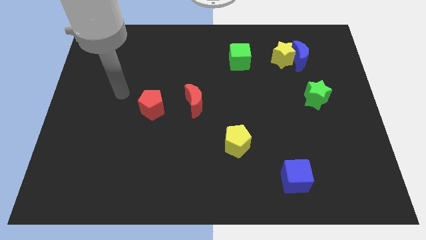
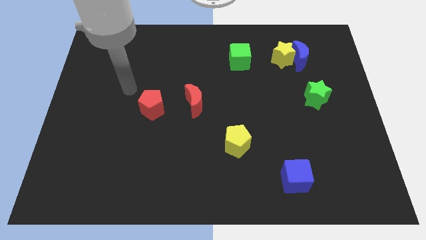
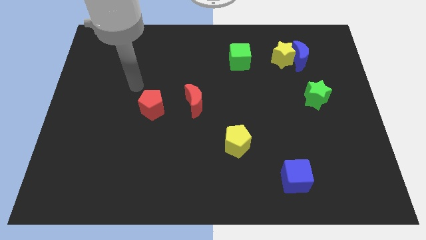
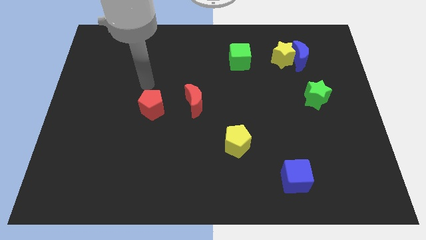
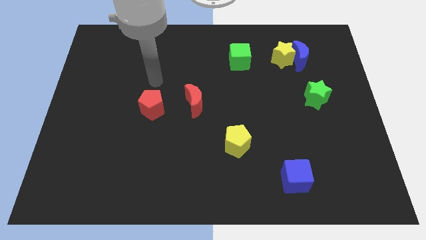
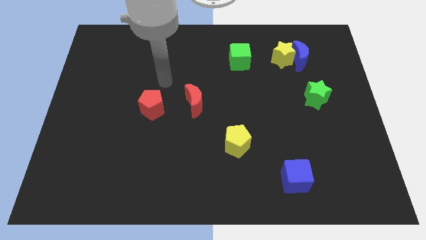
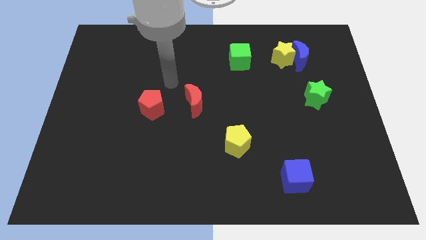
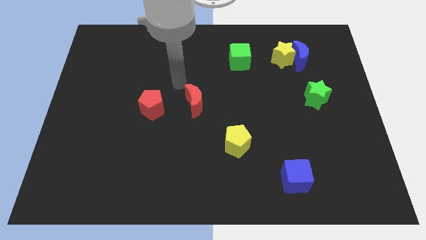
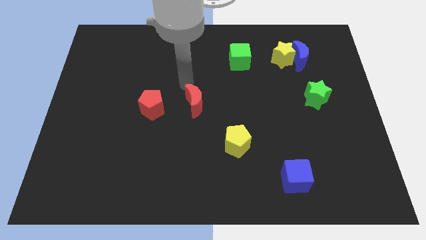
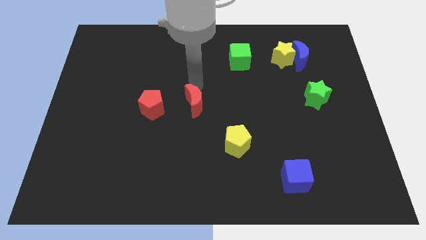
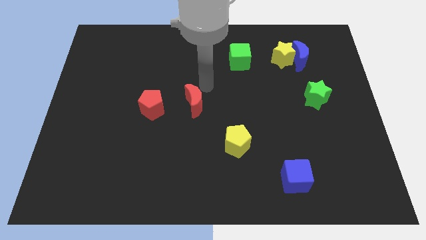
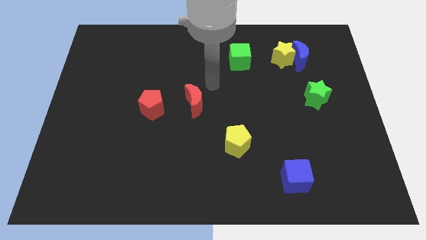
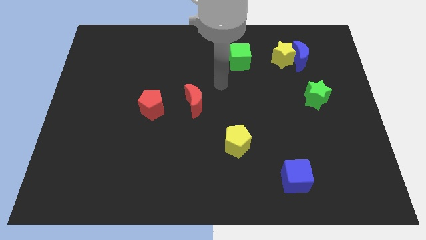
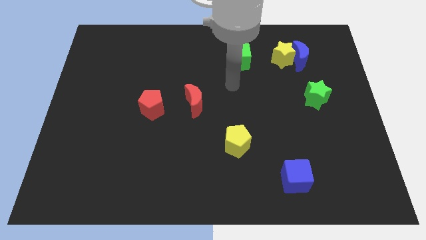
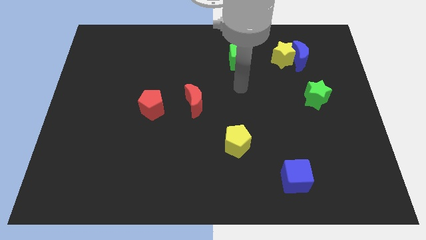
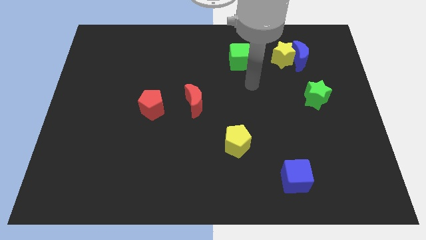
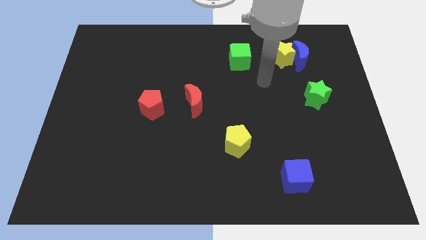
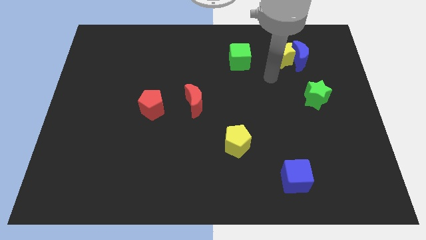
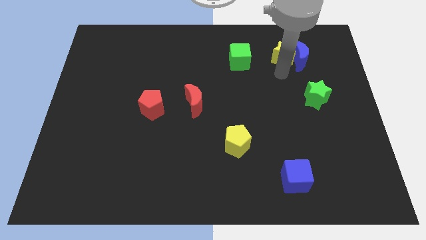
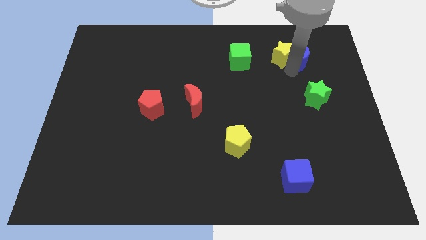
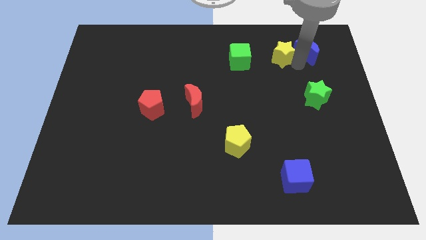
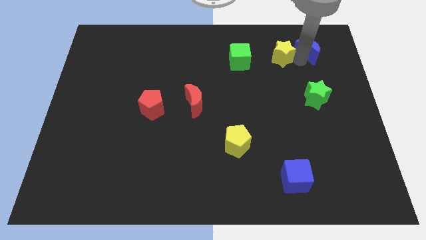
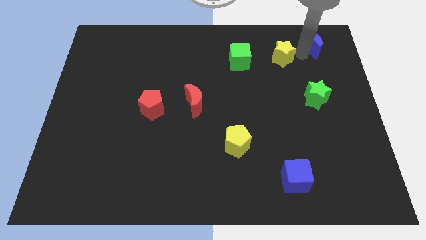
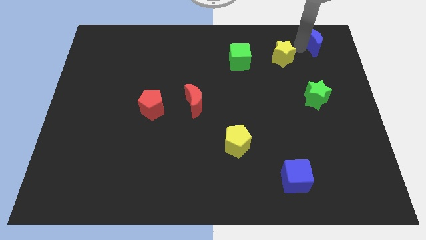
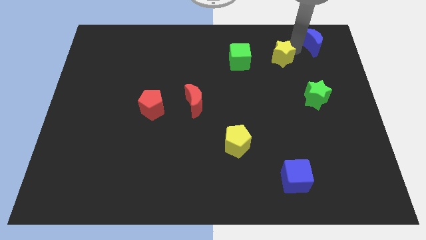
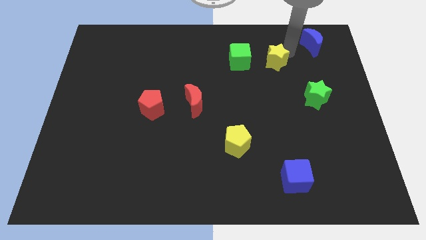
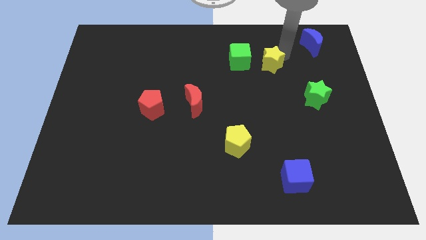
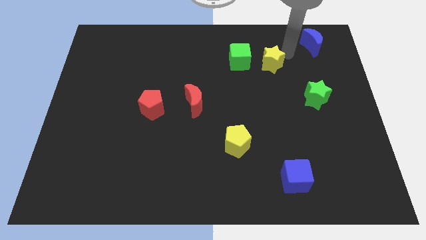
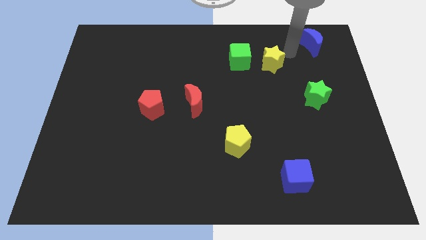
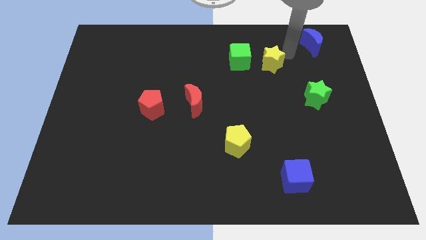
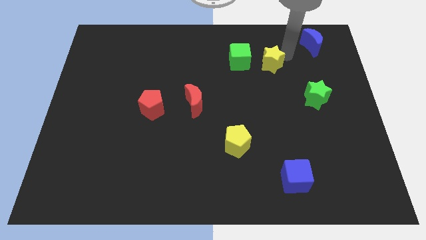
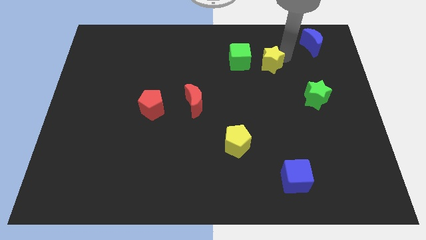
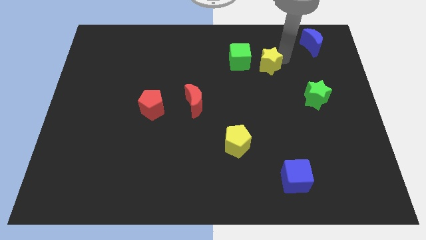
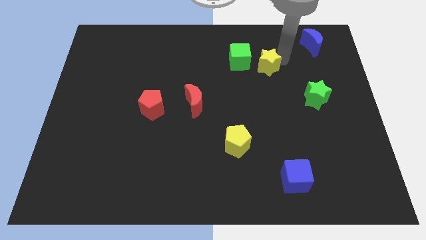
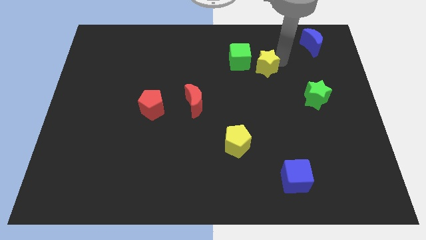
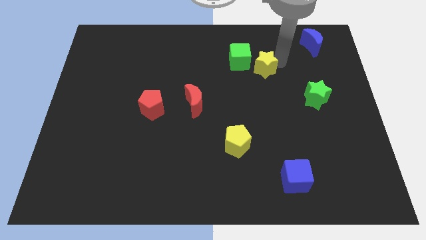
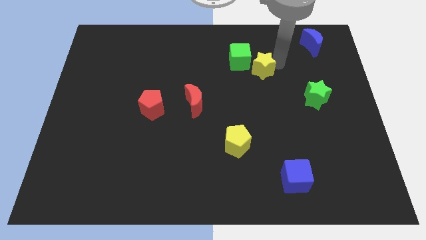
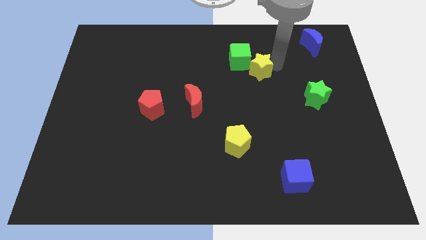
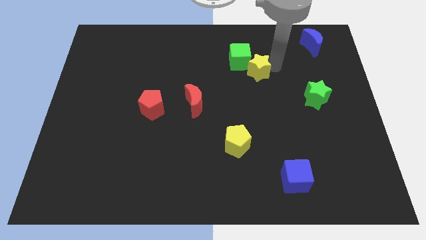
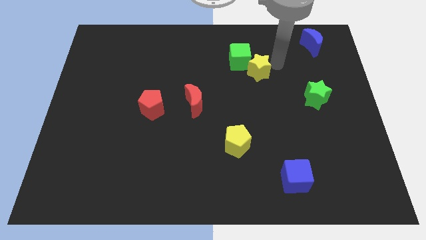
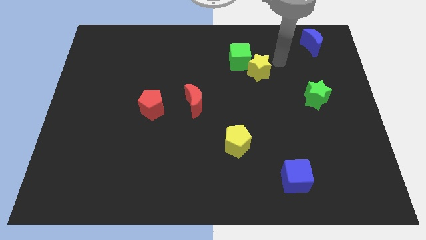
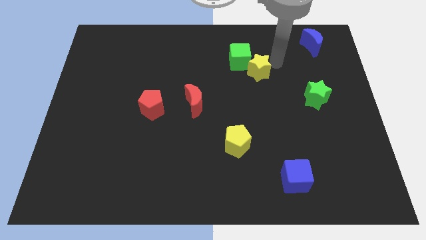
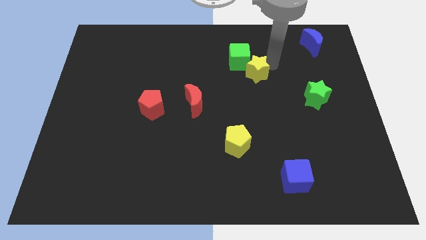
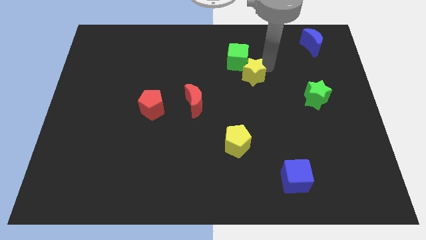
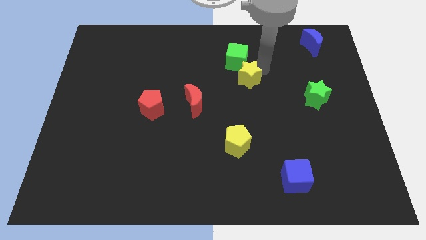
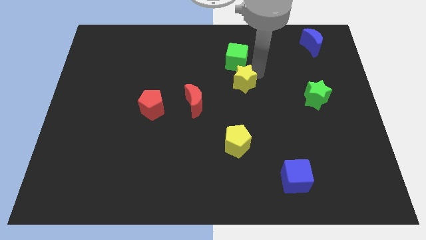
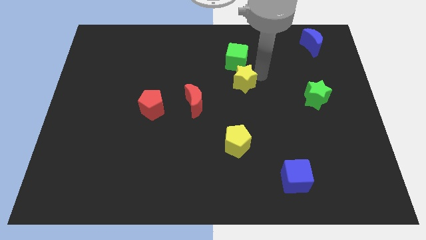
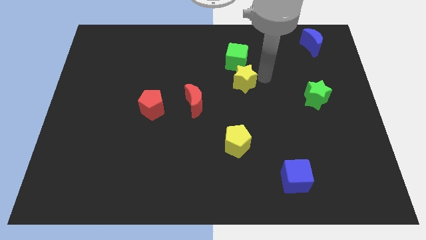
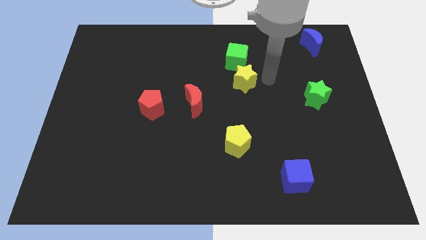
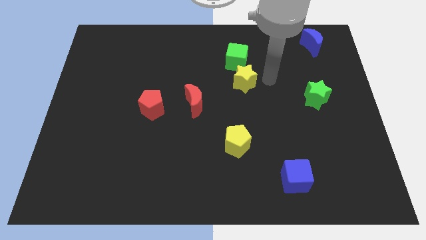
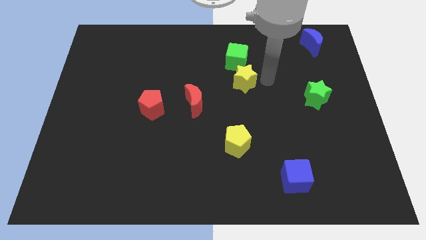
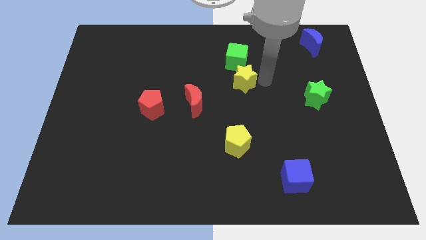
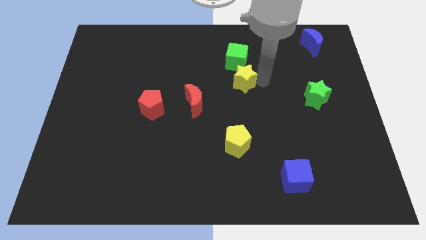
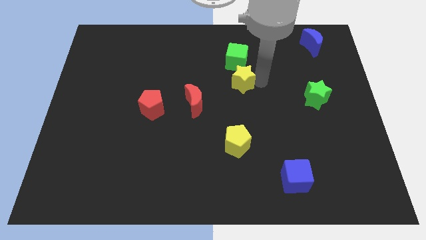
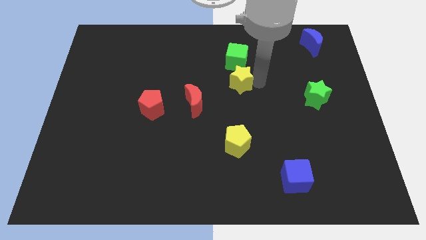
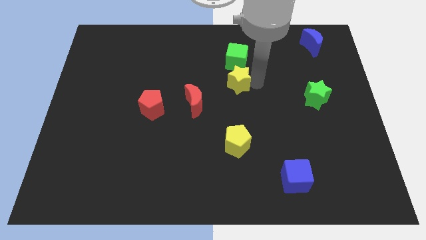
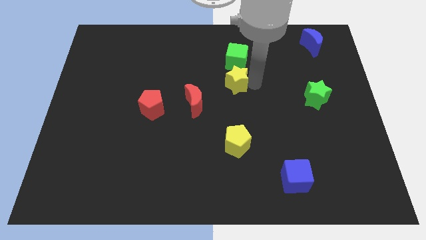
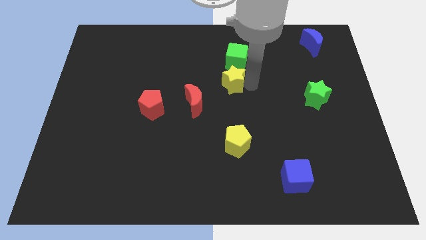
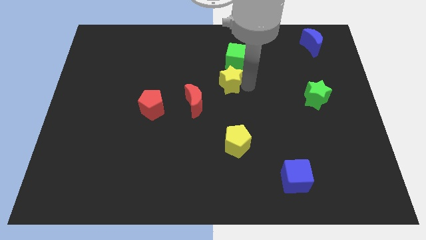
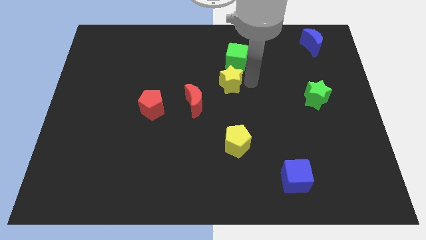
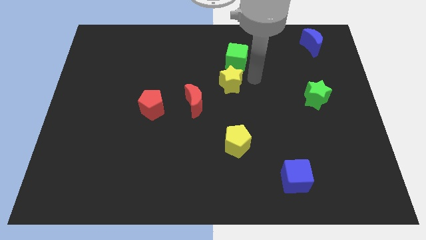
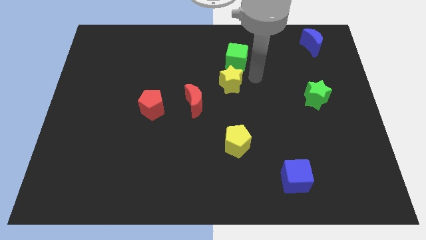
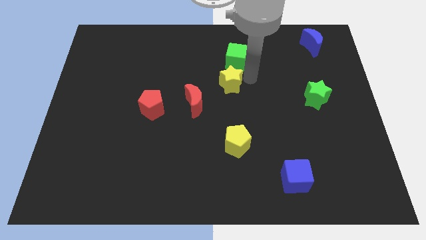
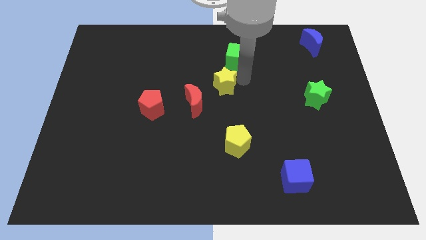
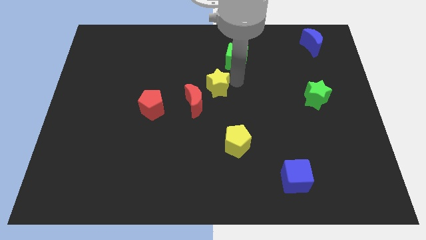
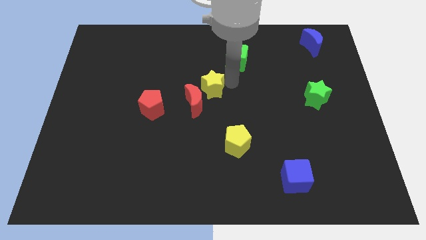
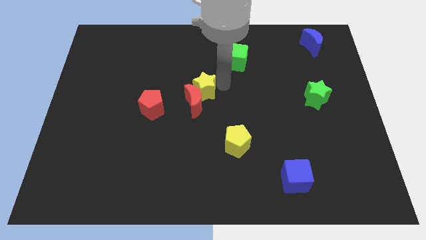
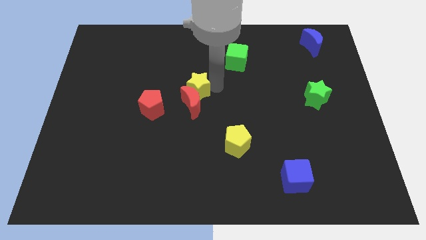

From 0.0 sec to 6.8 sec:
put the yellow star to the top right of the red pentagon
